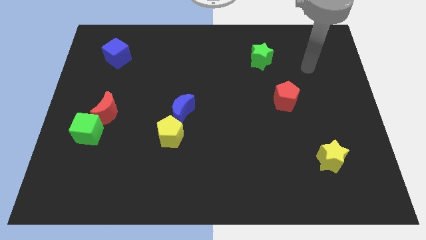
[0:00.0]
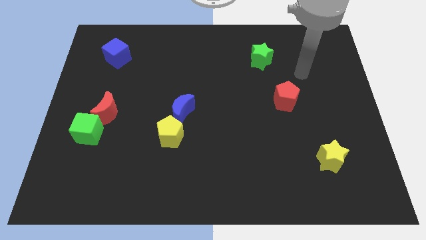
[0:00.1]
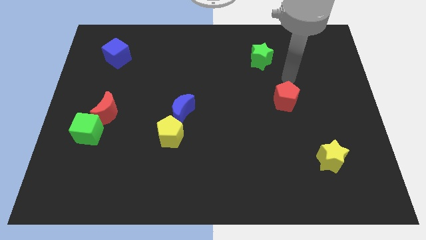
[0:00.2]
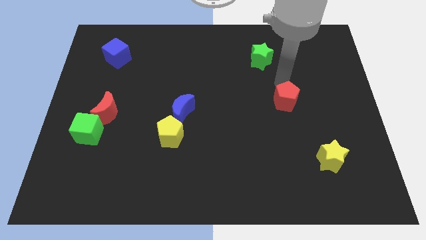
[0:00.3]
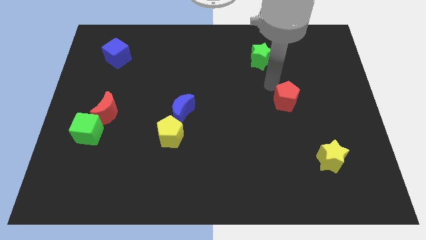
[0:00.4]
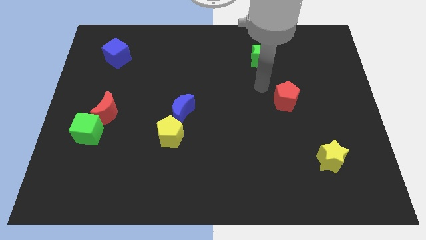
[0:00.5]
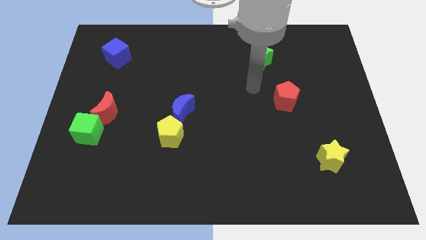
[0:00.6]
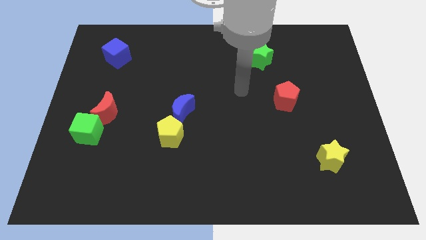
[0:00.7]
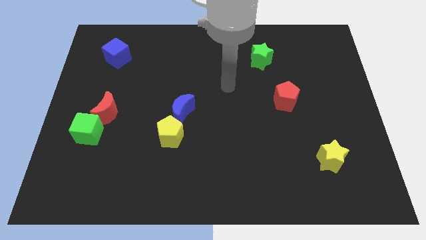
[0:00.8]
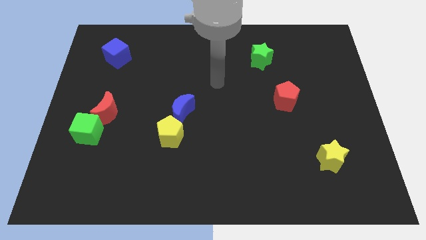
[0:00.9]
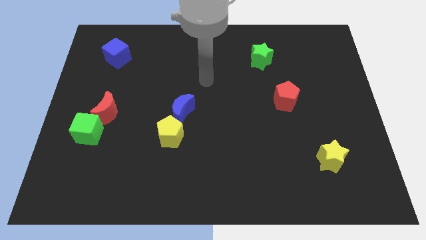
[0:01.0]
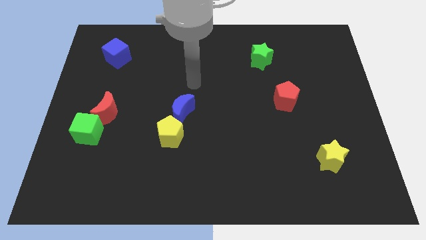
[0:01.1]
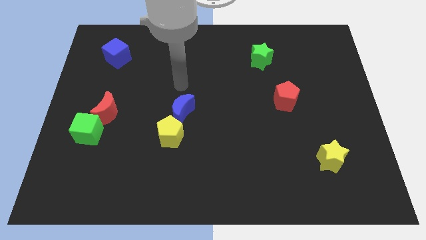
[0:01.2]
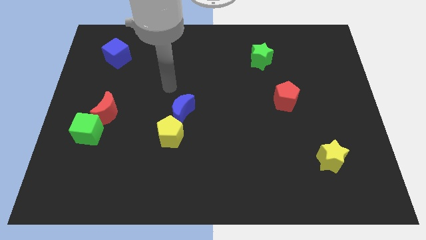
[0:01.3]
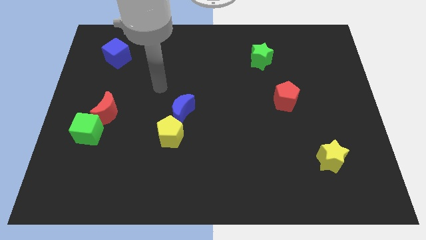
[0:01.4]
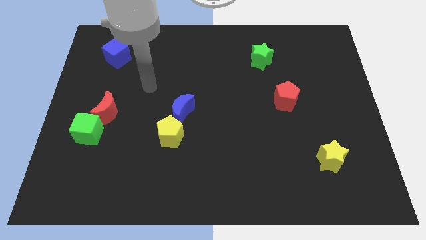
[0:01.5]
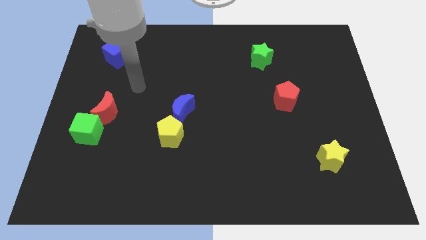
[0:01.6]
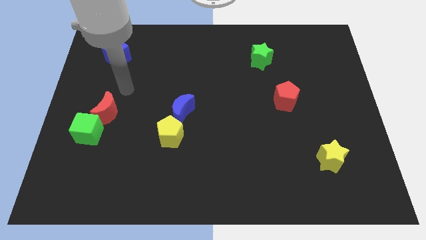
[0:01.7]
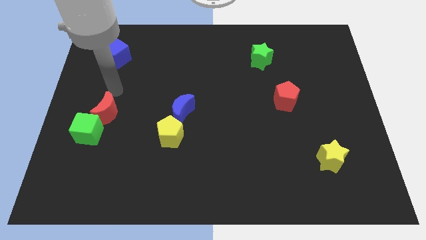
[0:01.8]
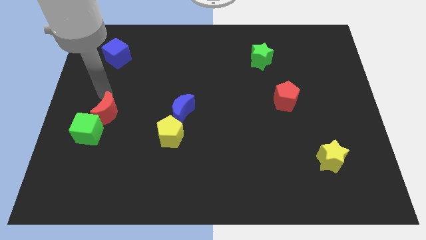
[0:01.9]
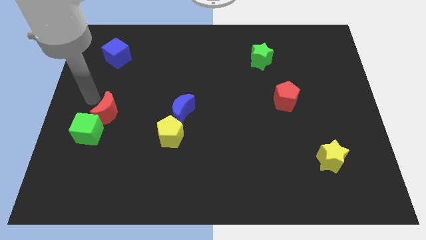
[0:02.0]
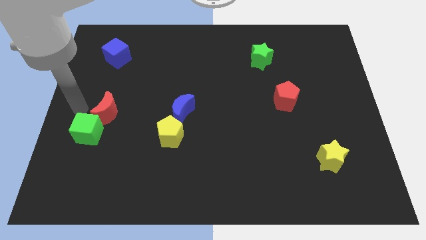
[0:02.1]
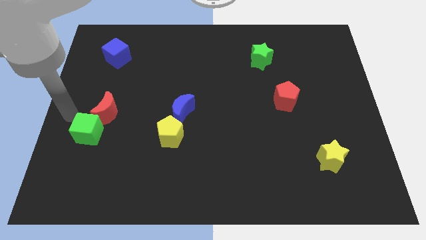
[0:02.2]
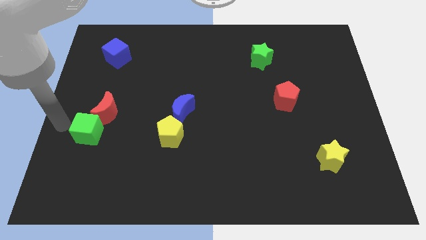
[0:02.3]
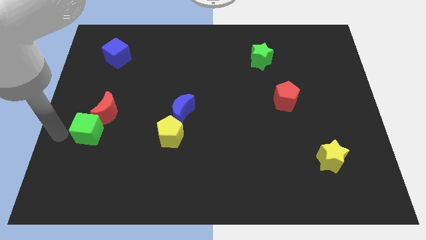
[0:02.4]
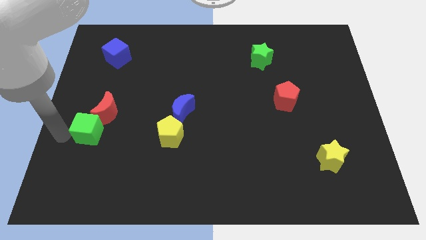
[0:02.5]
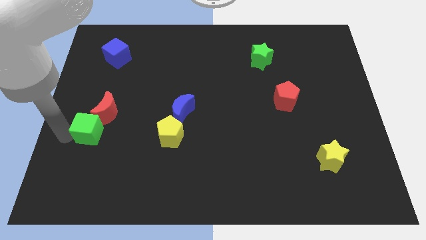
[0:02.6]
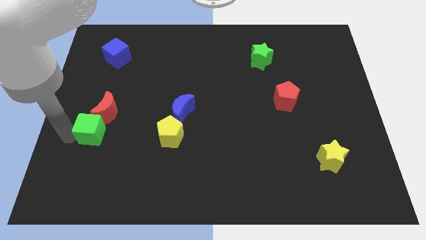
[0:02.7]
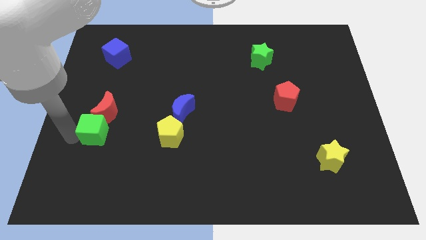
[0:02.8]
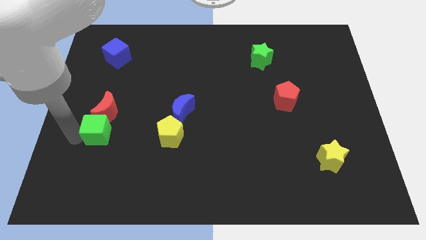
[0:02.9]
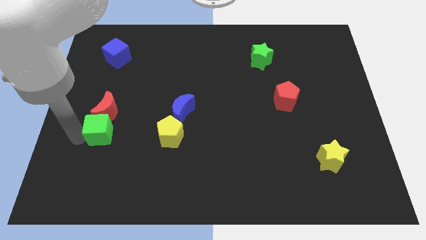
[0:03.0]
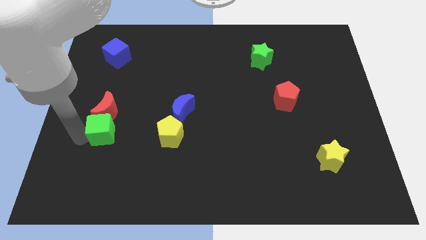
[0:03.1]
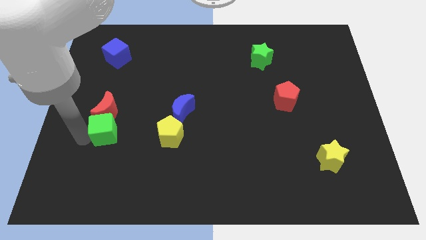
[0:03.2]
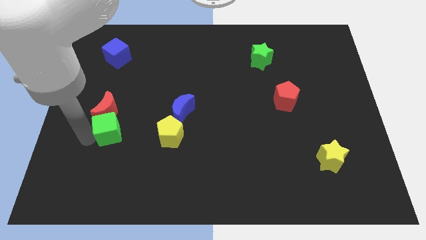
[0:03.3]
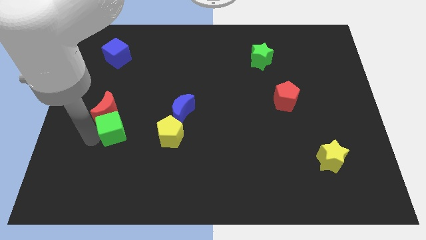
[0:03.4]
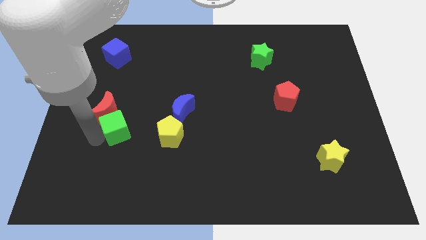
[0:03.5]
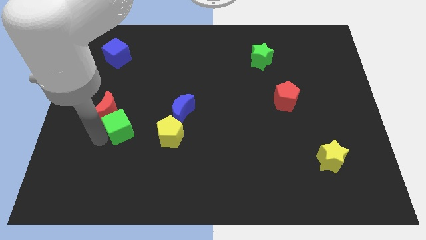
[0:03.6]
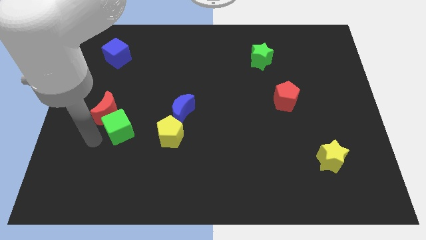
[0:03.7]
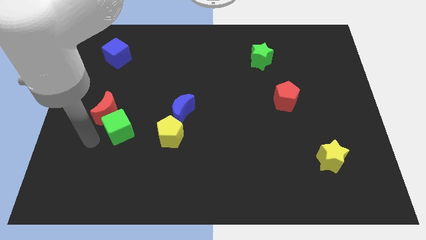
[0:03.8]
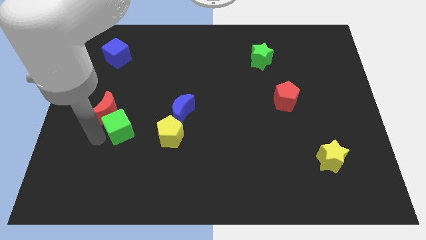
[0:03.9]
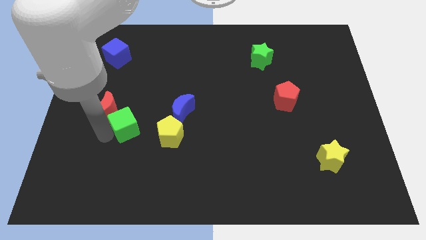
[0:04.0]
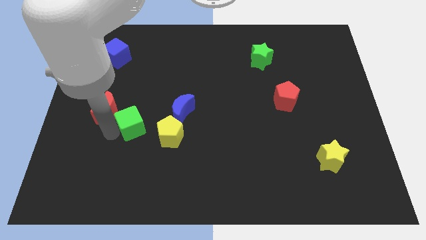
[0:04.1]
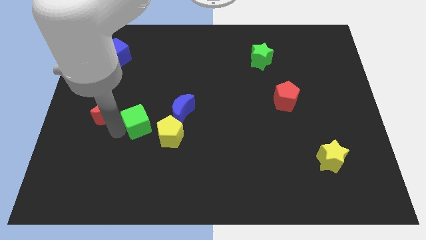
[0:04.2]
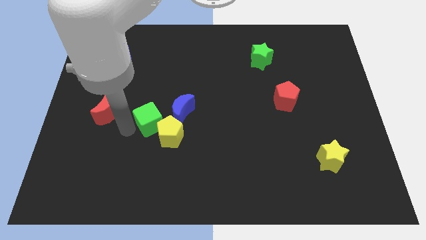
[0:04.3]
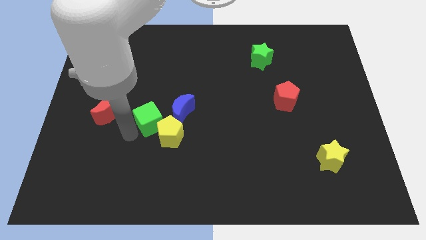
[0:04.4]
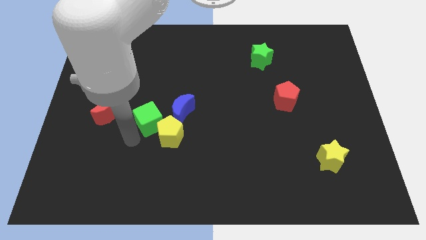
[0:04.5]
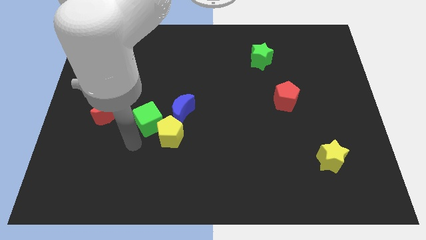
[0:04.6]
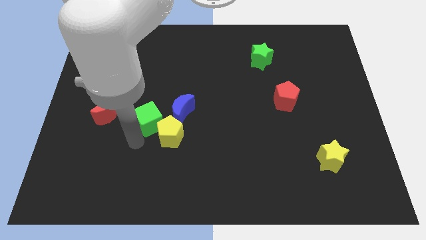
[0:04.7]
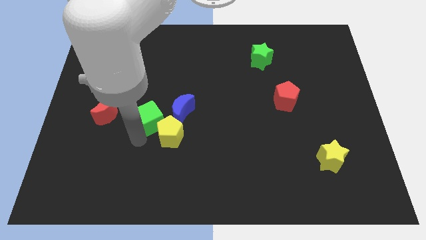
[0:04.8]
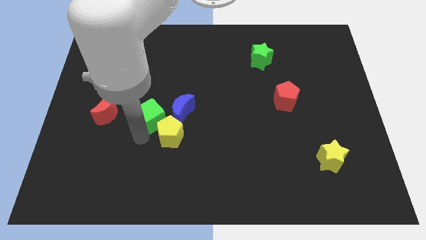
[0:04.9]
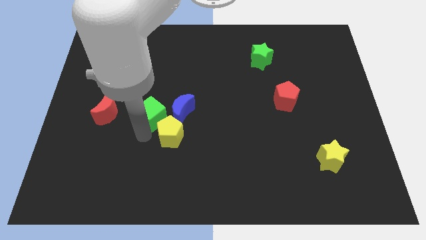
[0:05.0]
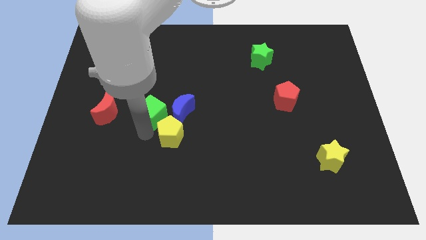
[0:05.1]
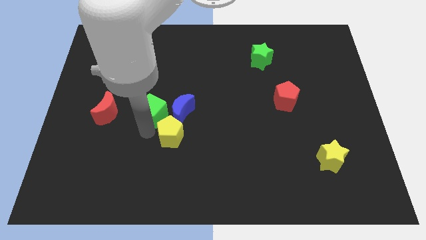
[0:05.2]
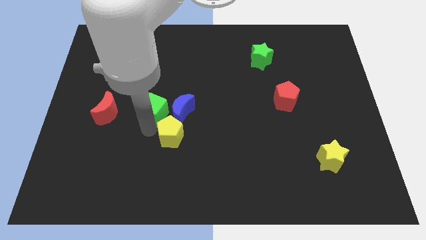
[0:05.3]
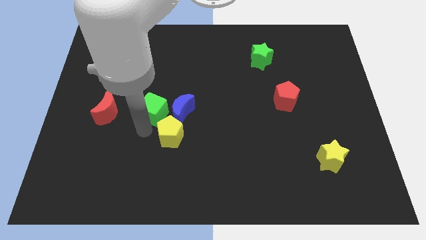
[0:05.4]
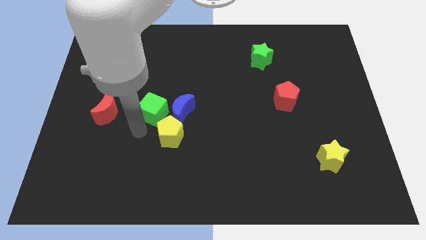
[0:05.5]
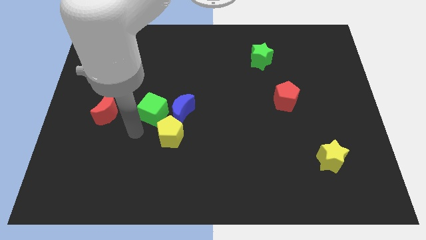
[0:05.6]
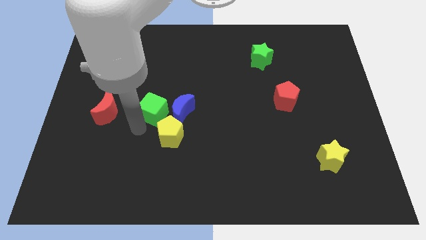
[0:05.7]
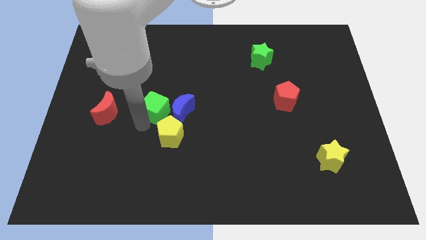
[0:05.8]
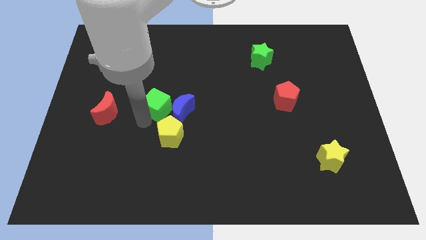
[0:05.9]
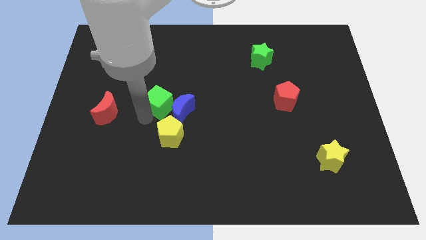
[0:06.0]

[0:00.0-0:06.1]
slide the green cube to the middle

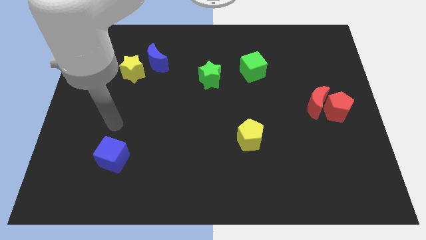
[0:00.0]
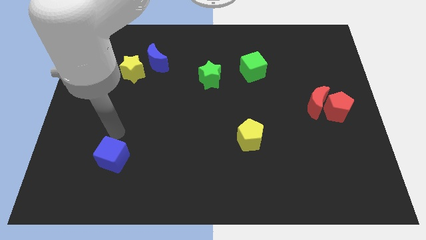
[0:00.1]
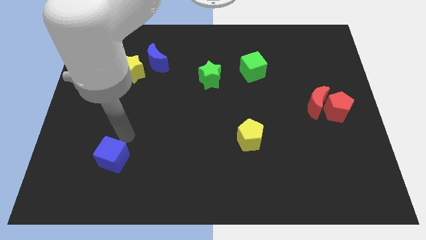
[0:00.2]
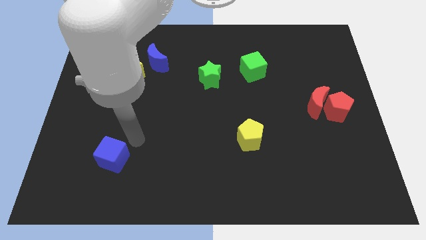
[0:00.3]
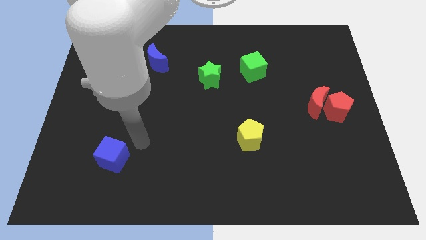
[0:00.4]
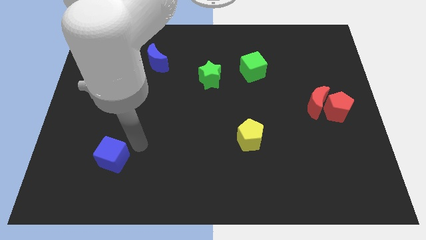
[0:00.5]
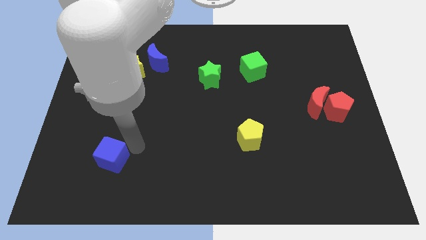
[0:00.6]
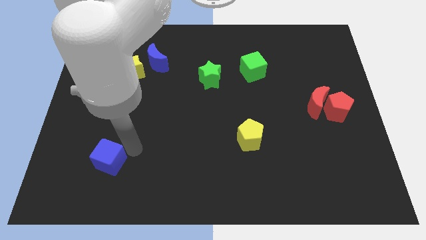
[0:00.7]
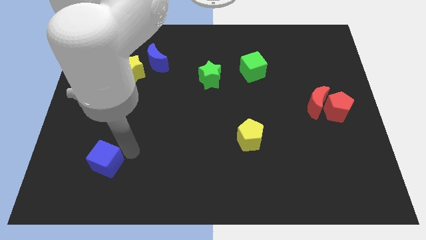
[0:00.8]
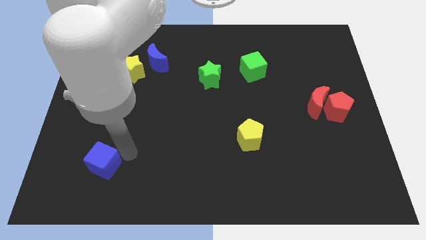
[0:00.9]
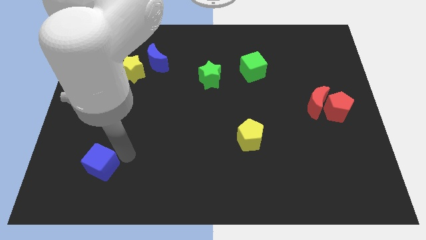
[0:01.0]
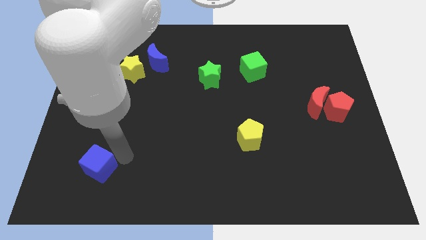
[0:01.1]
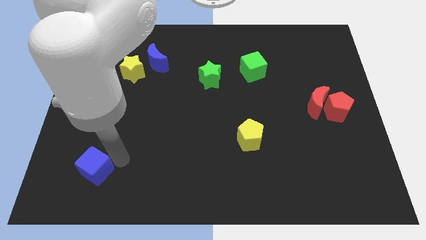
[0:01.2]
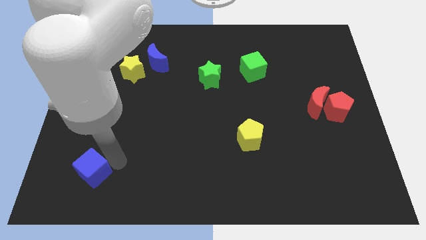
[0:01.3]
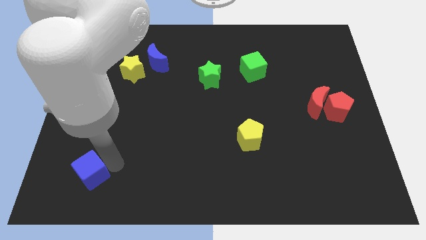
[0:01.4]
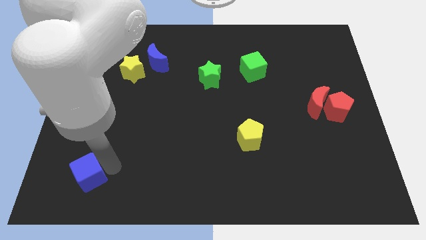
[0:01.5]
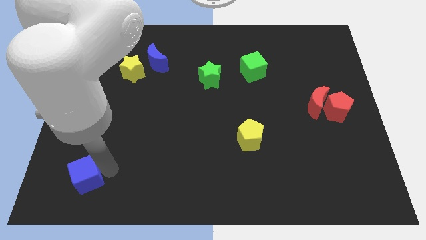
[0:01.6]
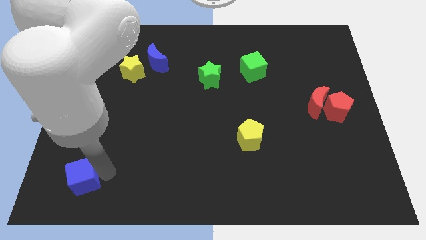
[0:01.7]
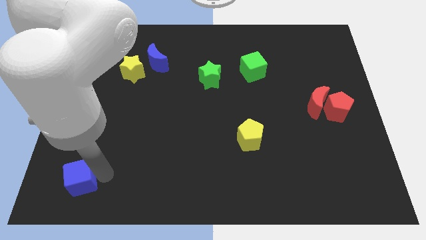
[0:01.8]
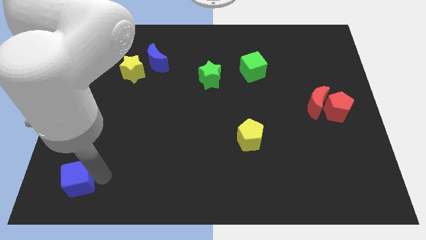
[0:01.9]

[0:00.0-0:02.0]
put the blue cube to the lower left corner
